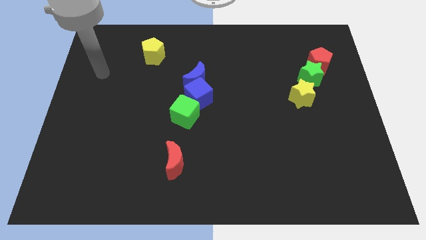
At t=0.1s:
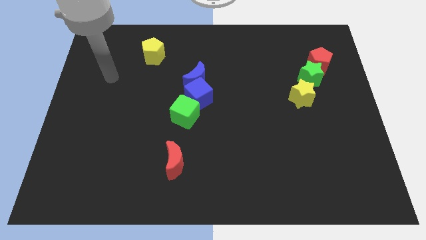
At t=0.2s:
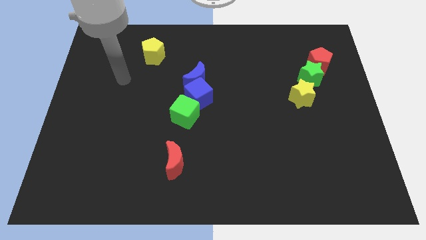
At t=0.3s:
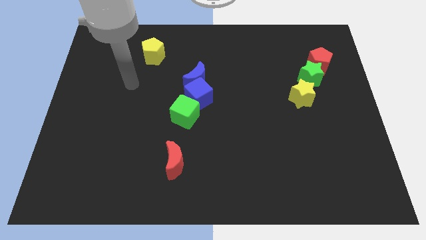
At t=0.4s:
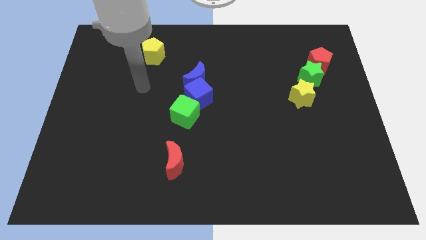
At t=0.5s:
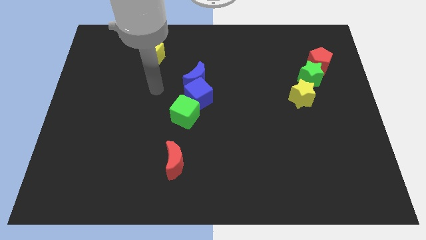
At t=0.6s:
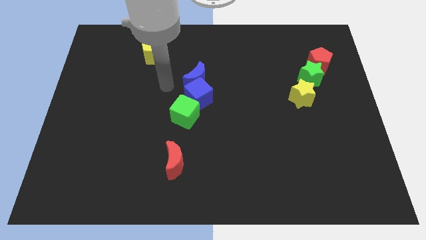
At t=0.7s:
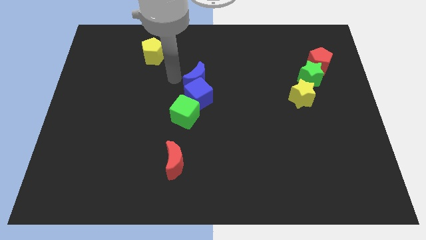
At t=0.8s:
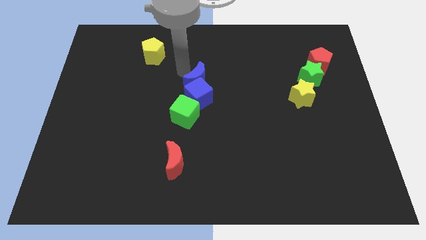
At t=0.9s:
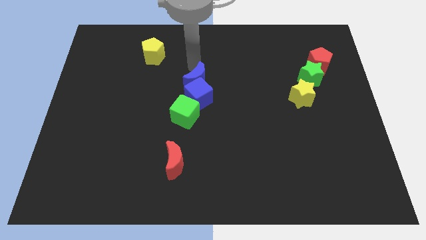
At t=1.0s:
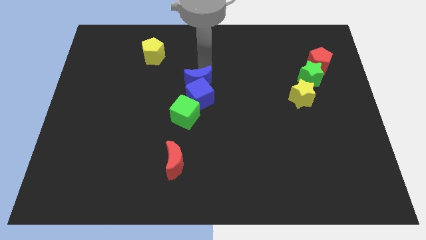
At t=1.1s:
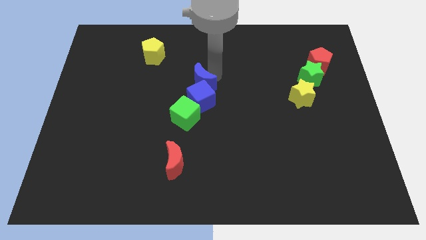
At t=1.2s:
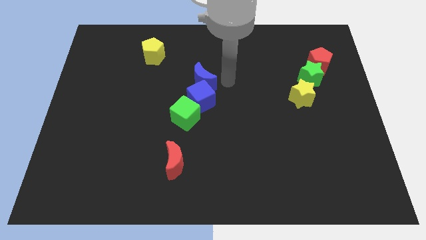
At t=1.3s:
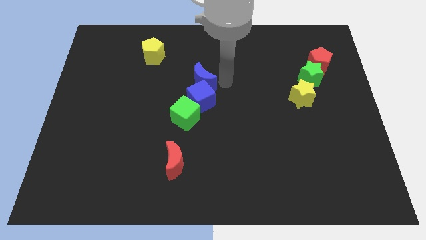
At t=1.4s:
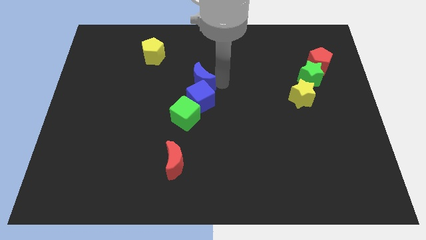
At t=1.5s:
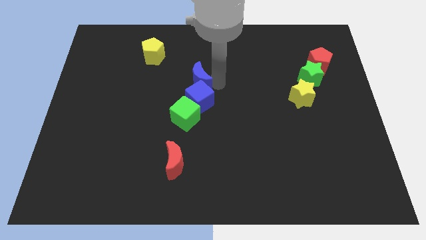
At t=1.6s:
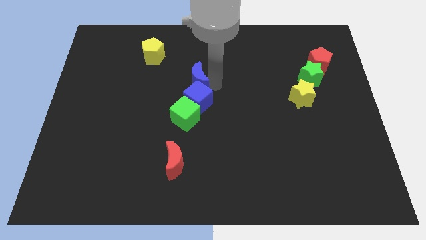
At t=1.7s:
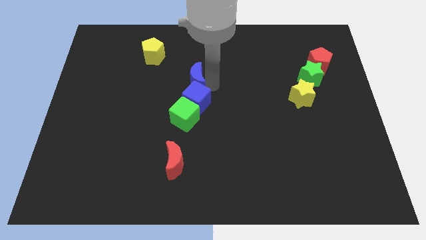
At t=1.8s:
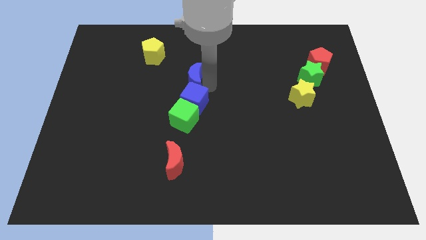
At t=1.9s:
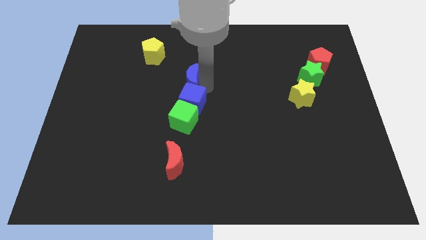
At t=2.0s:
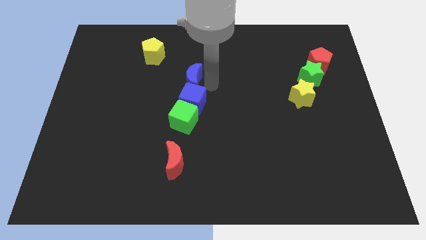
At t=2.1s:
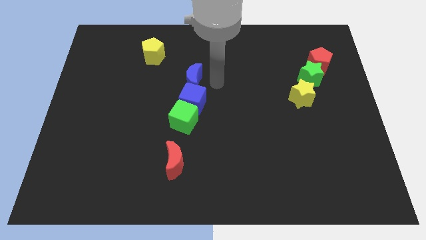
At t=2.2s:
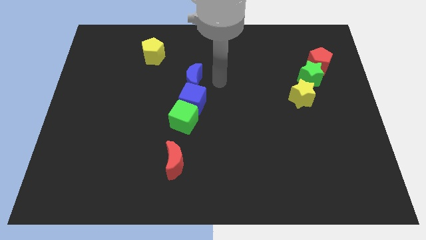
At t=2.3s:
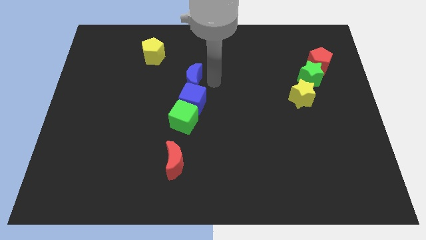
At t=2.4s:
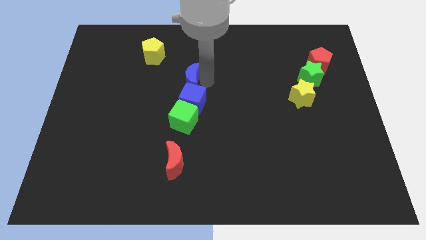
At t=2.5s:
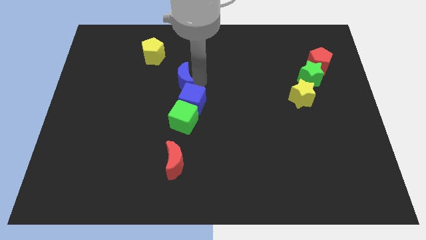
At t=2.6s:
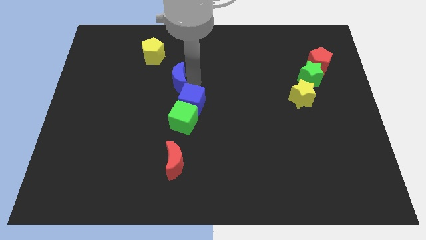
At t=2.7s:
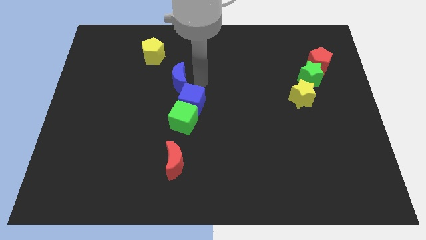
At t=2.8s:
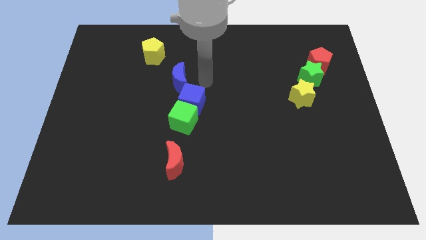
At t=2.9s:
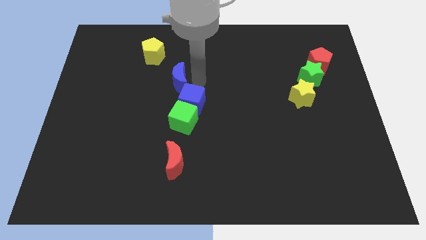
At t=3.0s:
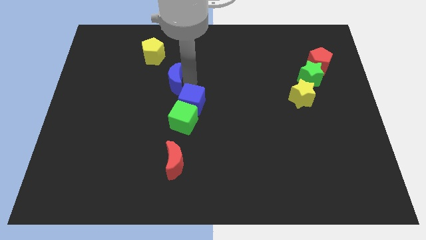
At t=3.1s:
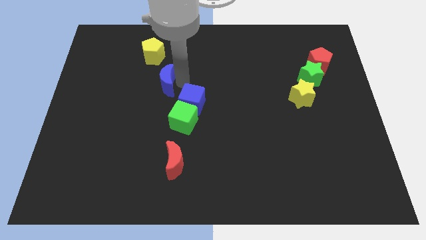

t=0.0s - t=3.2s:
push the blue moon slightly left

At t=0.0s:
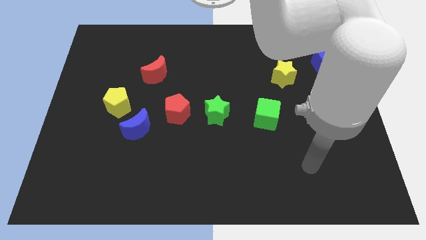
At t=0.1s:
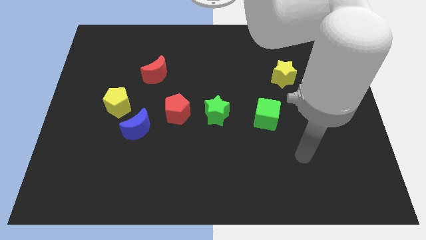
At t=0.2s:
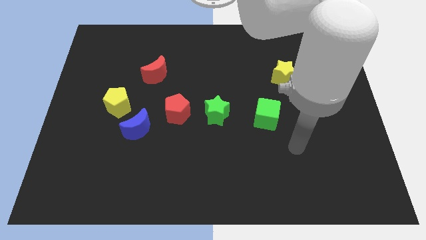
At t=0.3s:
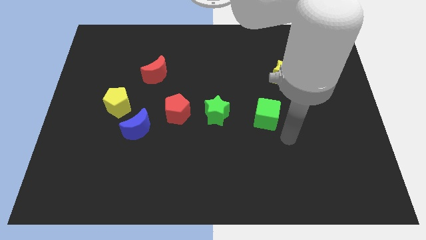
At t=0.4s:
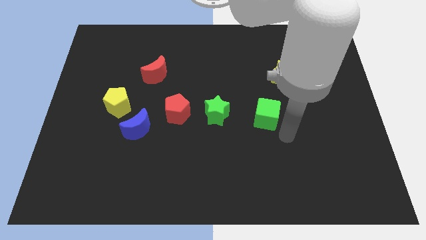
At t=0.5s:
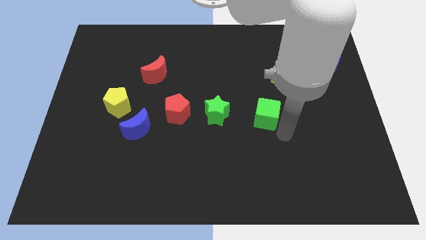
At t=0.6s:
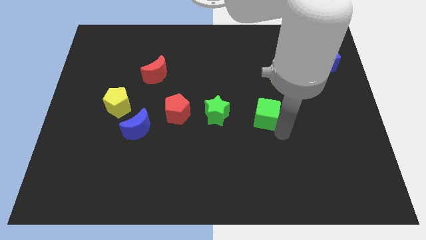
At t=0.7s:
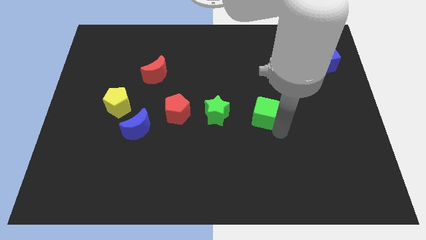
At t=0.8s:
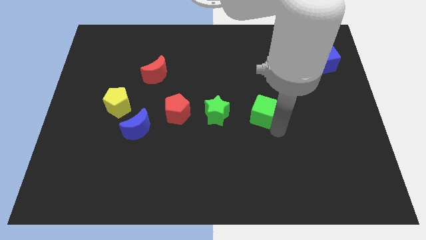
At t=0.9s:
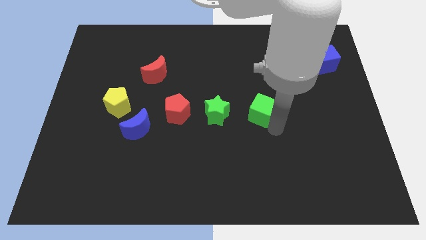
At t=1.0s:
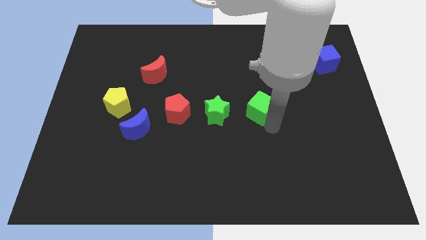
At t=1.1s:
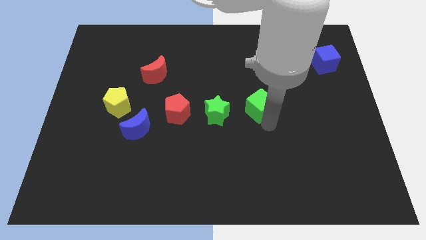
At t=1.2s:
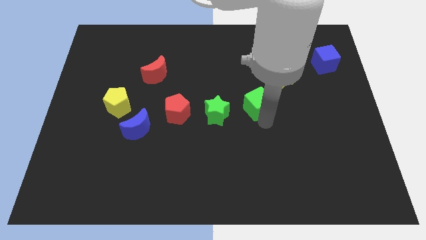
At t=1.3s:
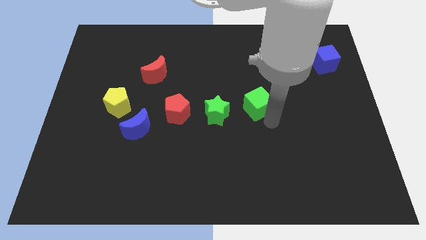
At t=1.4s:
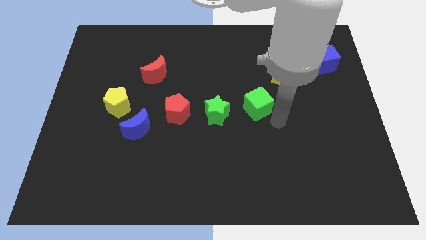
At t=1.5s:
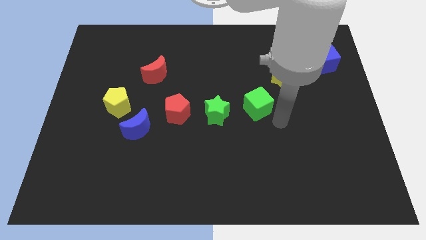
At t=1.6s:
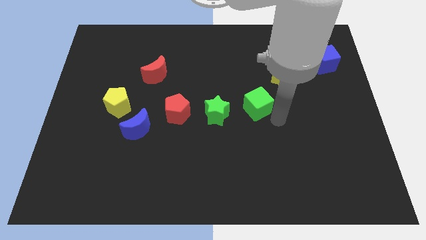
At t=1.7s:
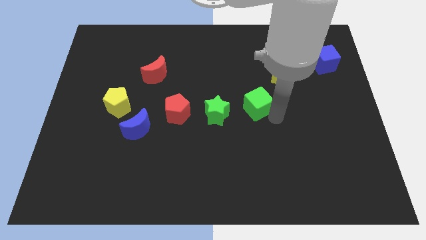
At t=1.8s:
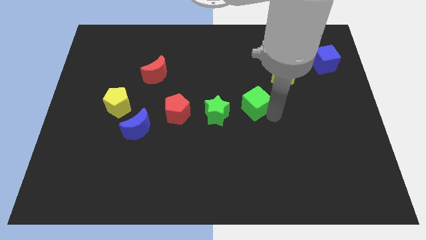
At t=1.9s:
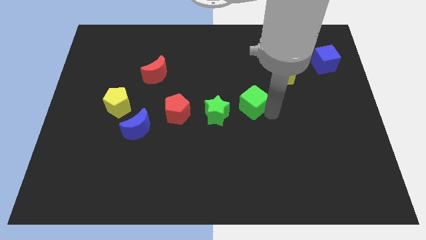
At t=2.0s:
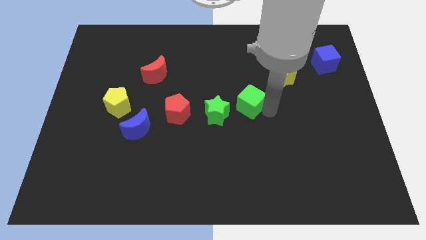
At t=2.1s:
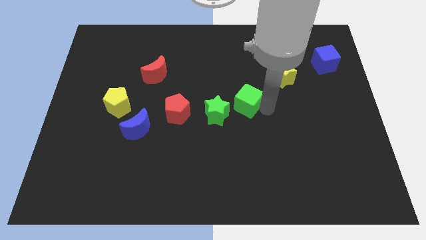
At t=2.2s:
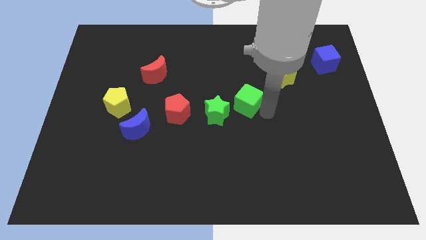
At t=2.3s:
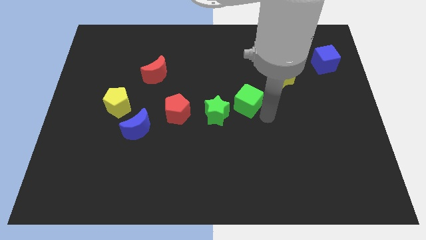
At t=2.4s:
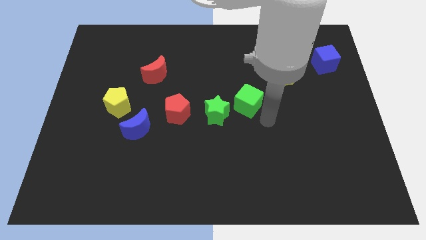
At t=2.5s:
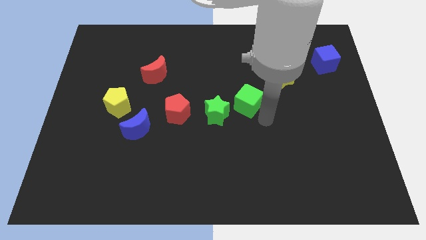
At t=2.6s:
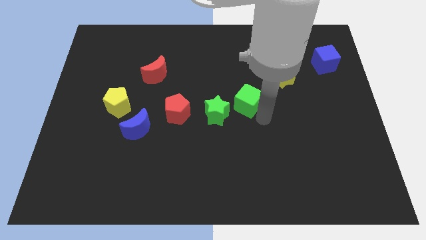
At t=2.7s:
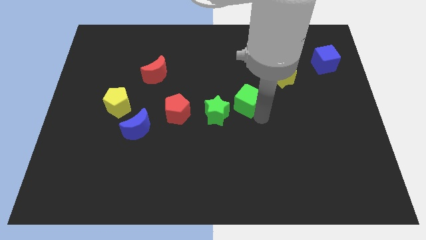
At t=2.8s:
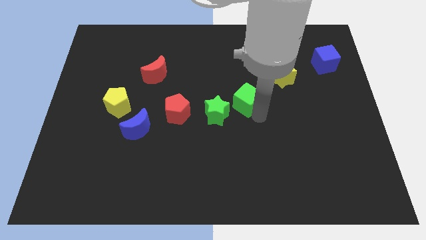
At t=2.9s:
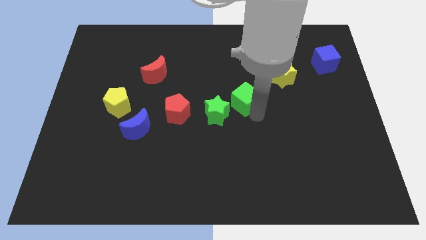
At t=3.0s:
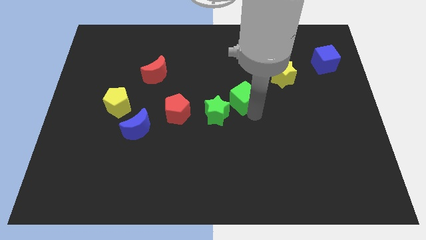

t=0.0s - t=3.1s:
slightly move the green cube up and to the left diagonally

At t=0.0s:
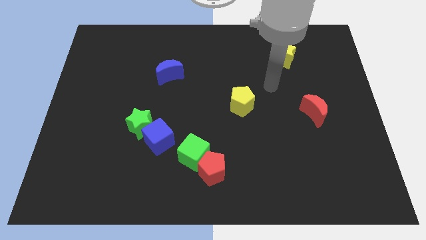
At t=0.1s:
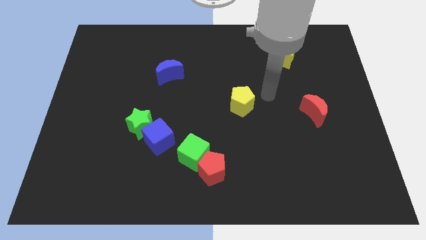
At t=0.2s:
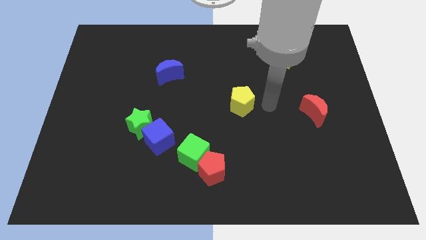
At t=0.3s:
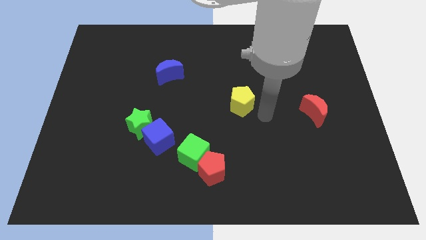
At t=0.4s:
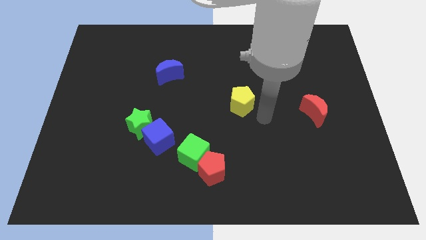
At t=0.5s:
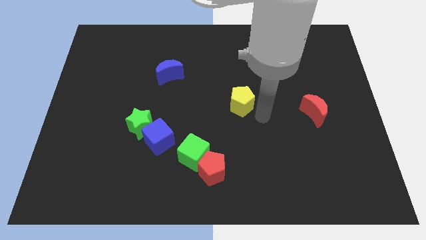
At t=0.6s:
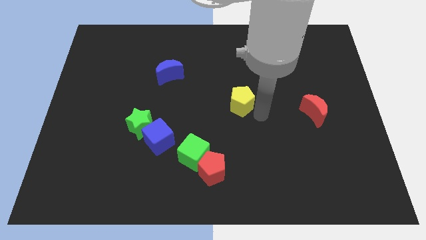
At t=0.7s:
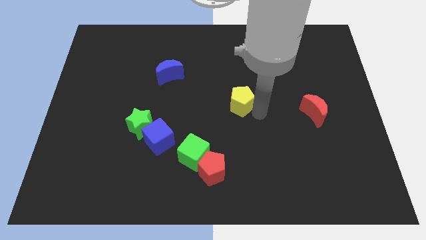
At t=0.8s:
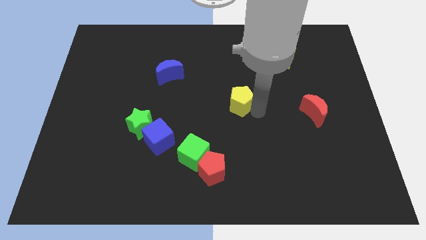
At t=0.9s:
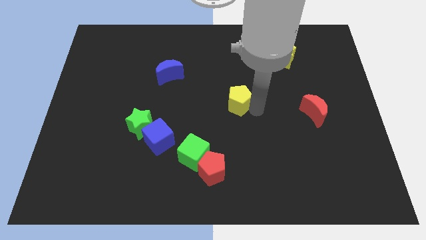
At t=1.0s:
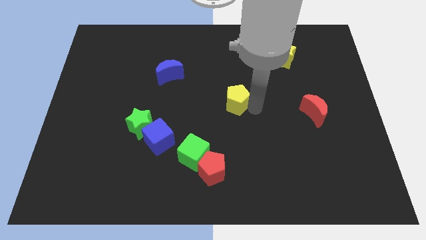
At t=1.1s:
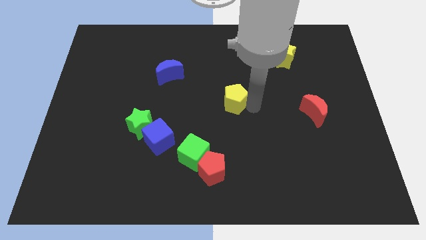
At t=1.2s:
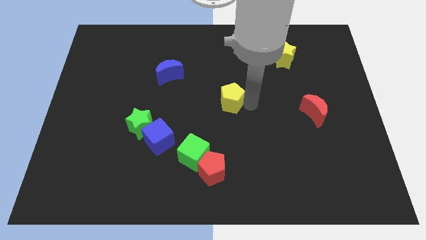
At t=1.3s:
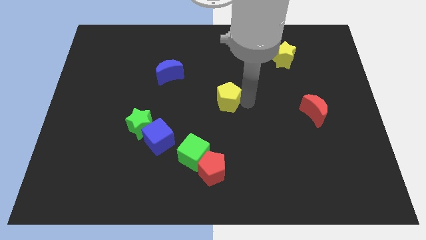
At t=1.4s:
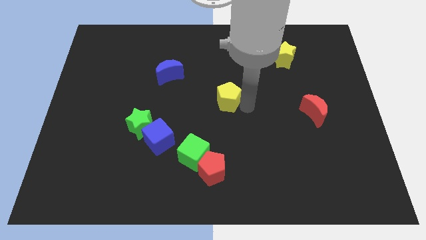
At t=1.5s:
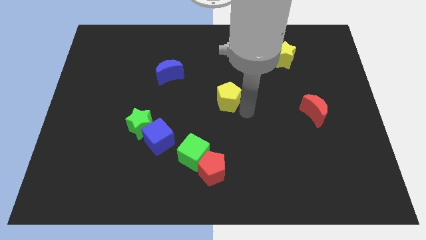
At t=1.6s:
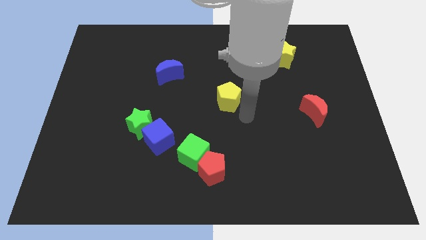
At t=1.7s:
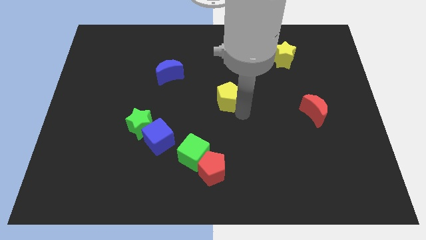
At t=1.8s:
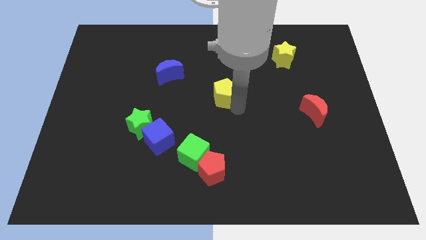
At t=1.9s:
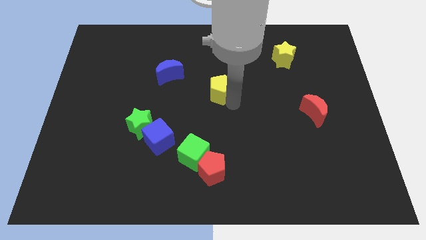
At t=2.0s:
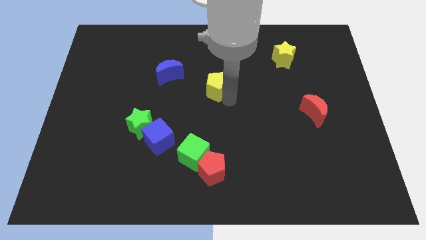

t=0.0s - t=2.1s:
slide the yellow pentagon upwards and then left a little
